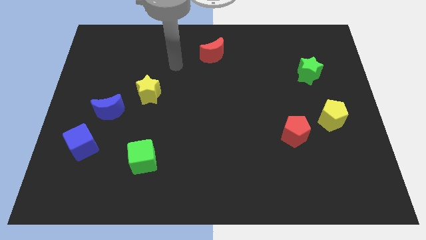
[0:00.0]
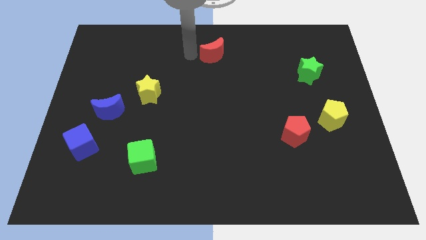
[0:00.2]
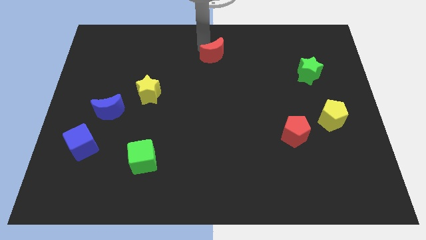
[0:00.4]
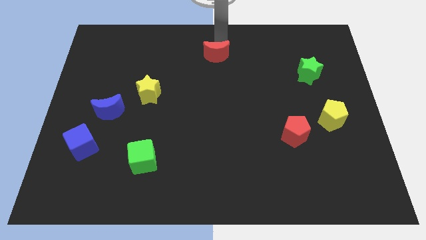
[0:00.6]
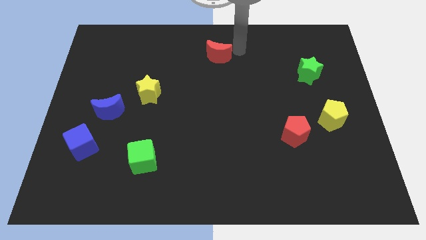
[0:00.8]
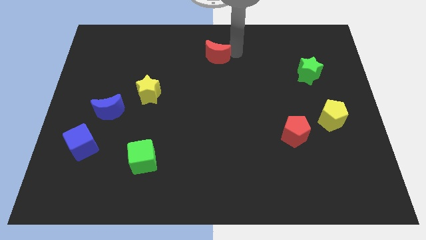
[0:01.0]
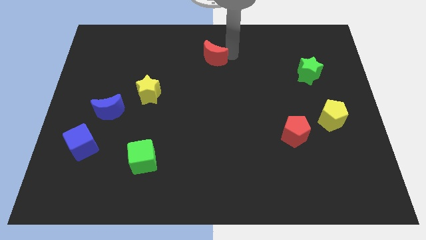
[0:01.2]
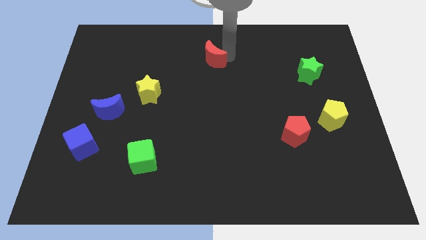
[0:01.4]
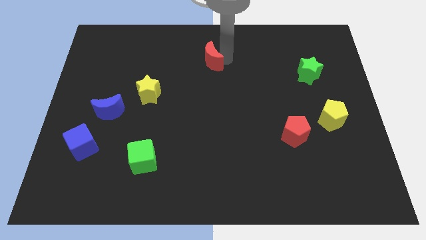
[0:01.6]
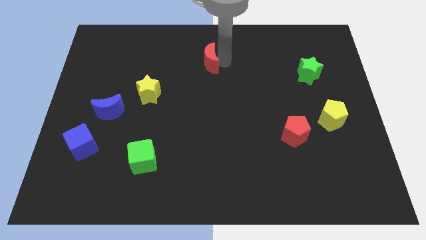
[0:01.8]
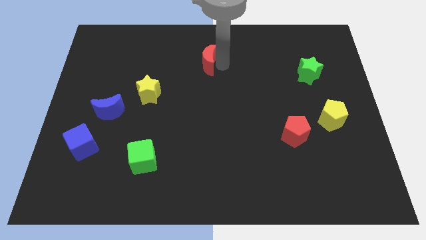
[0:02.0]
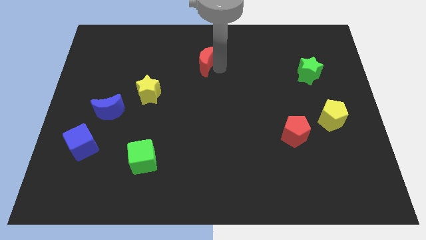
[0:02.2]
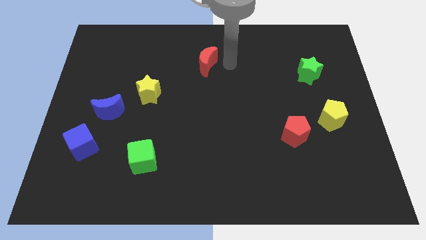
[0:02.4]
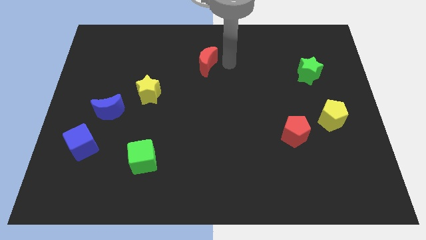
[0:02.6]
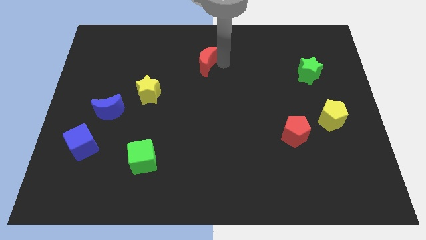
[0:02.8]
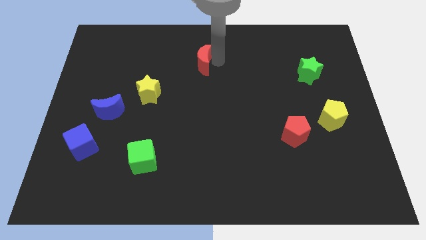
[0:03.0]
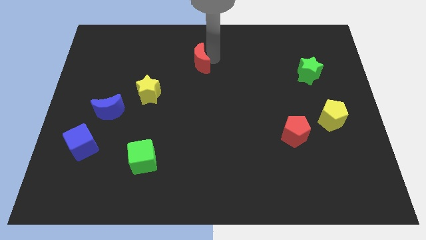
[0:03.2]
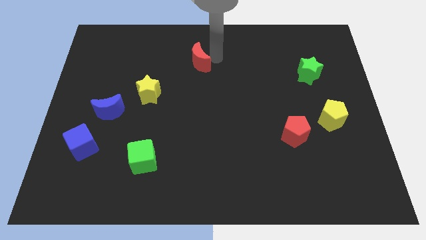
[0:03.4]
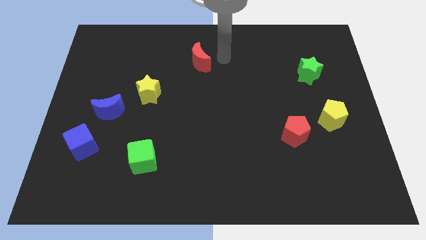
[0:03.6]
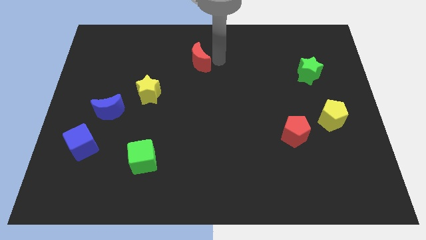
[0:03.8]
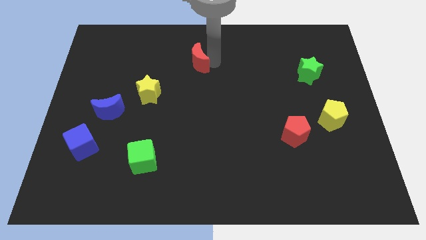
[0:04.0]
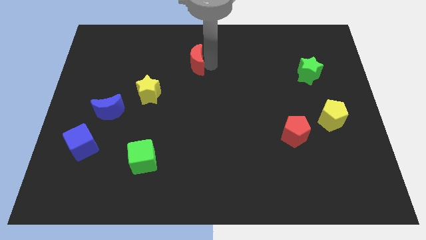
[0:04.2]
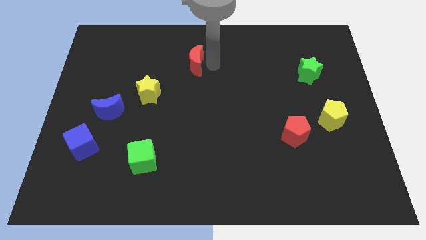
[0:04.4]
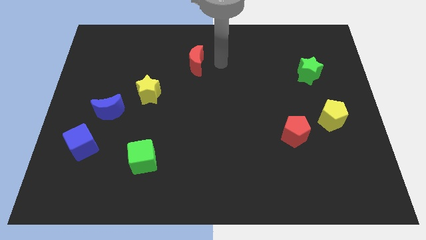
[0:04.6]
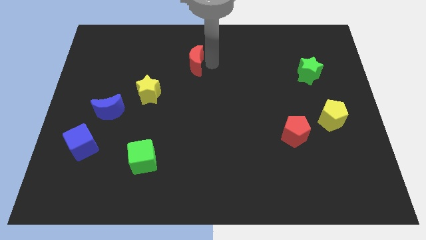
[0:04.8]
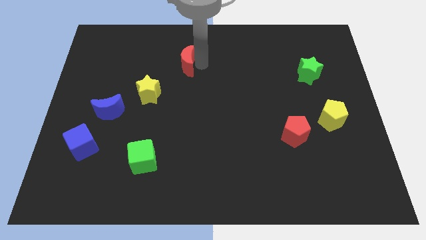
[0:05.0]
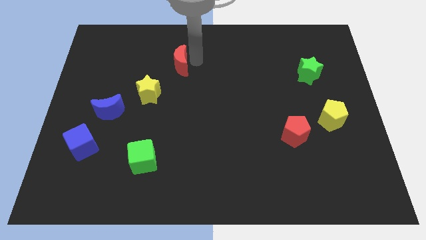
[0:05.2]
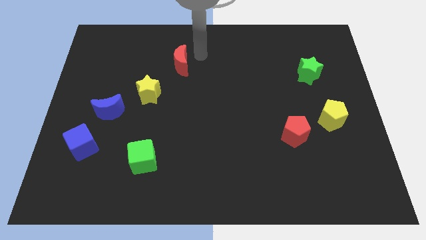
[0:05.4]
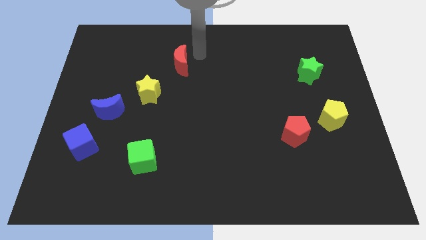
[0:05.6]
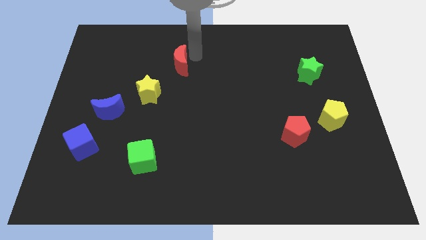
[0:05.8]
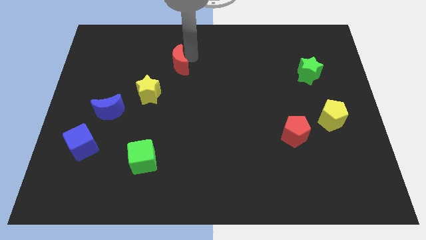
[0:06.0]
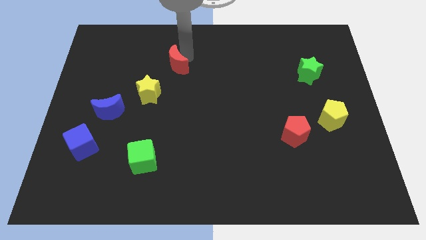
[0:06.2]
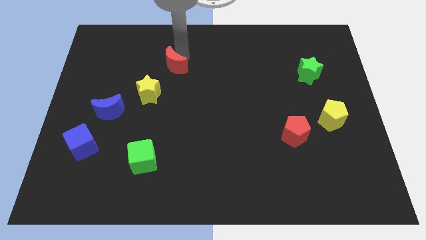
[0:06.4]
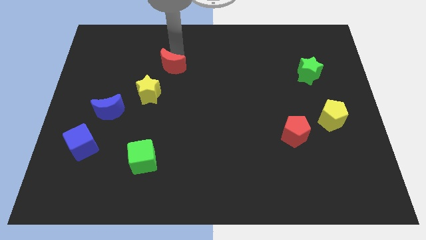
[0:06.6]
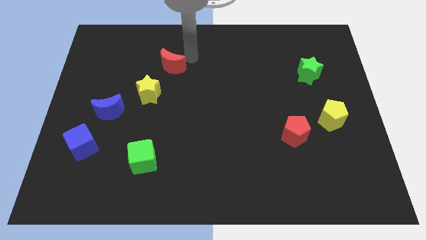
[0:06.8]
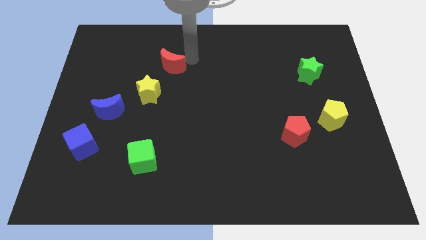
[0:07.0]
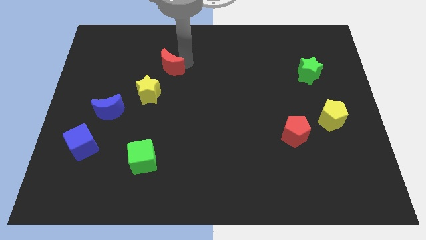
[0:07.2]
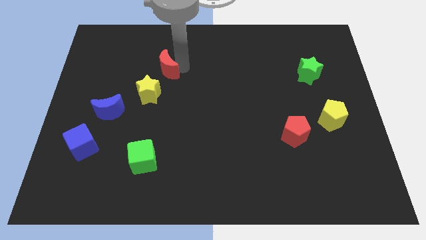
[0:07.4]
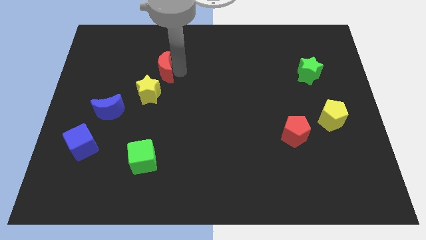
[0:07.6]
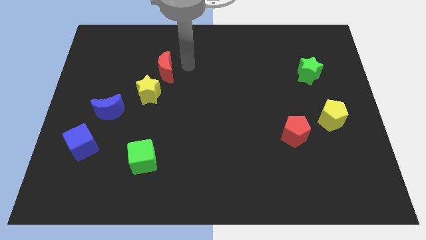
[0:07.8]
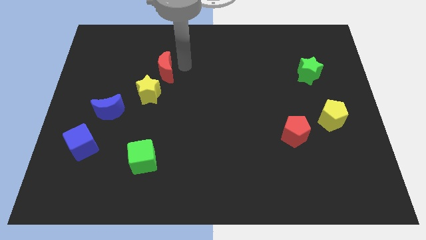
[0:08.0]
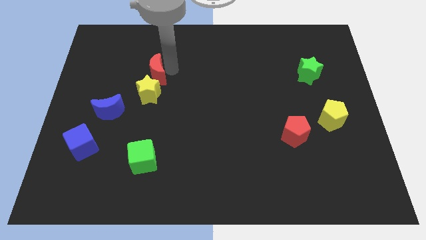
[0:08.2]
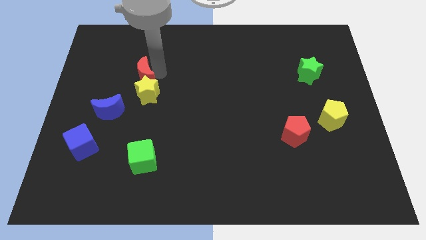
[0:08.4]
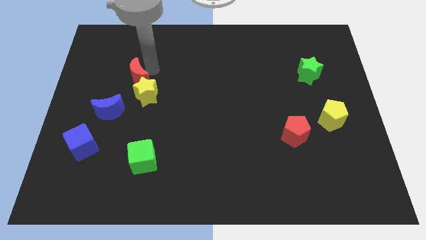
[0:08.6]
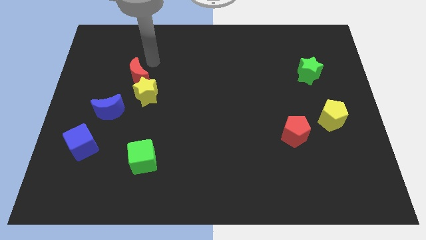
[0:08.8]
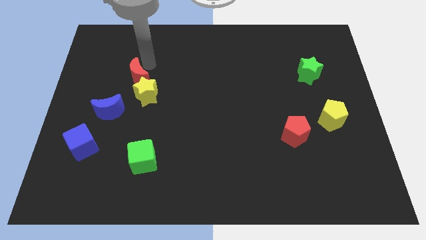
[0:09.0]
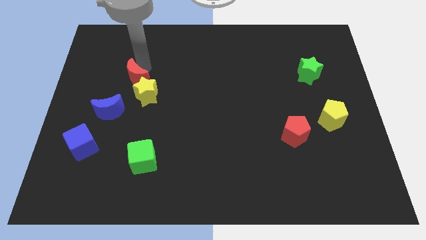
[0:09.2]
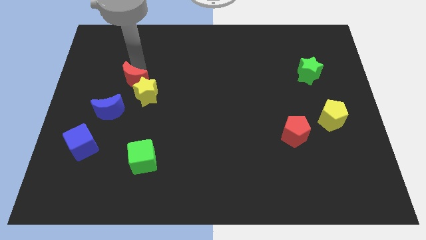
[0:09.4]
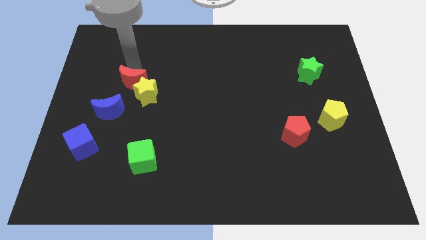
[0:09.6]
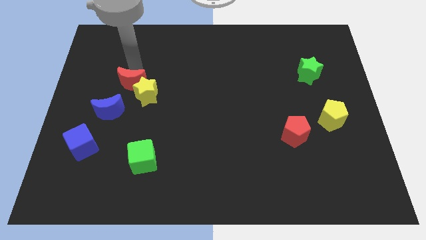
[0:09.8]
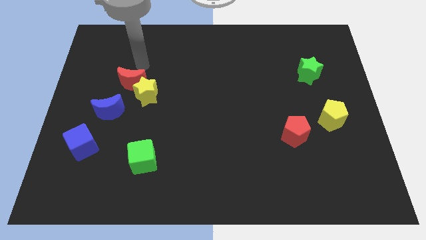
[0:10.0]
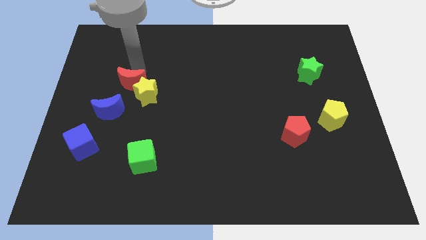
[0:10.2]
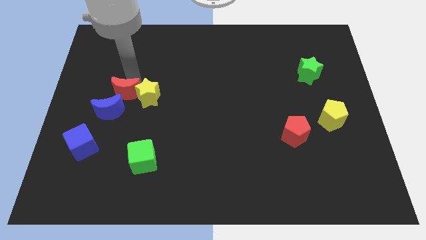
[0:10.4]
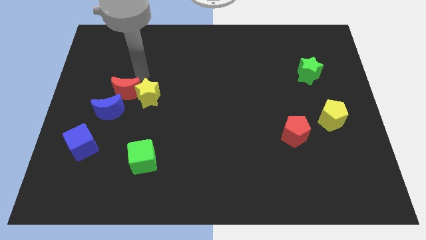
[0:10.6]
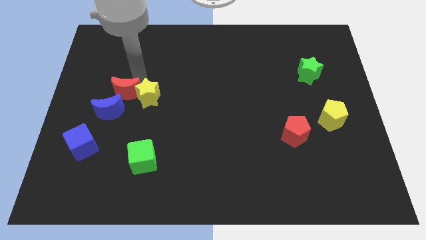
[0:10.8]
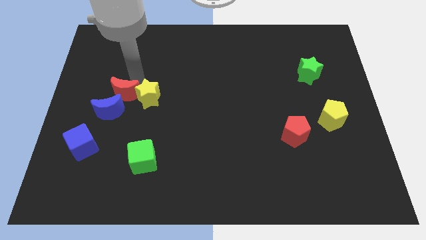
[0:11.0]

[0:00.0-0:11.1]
push the red moon close to the blue moon

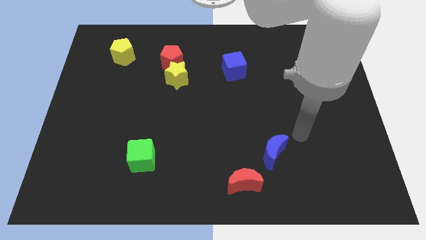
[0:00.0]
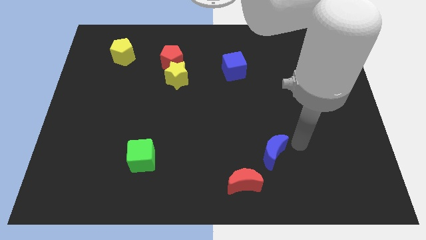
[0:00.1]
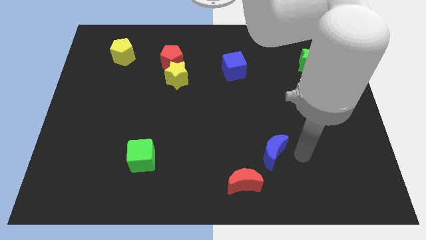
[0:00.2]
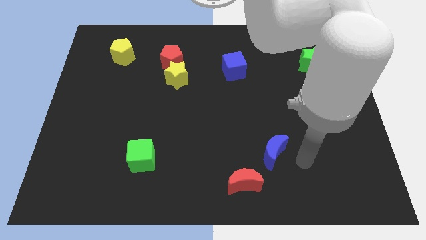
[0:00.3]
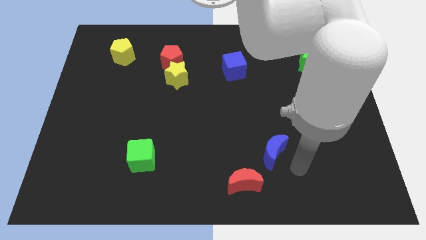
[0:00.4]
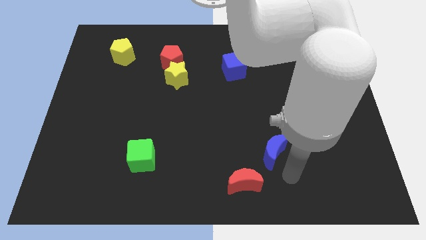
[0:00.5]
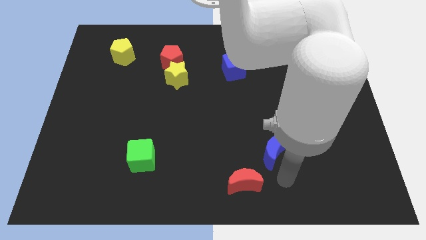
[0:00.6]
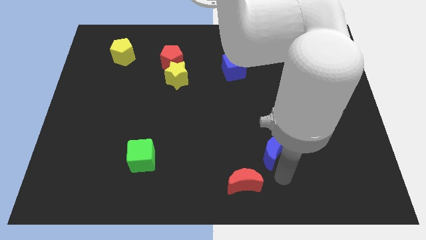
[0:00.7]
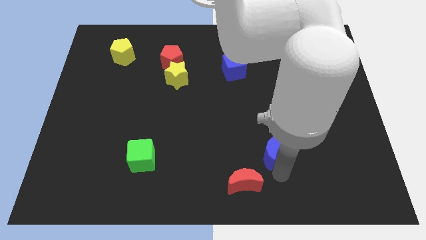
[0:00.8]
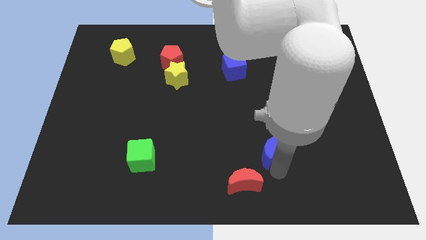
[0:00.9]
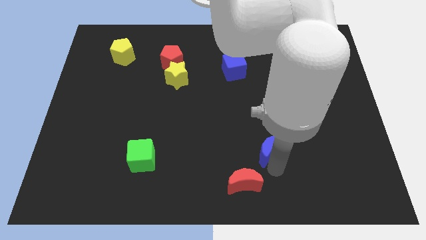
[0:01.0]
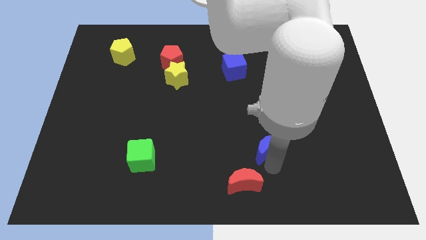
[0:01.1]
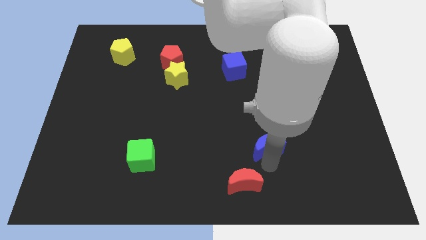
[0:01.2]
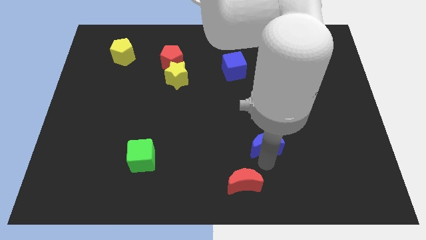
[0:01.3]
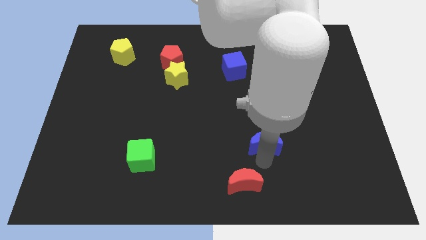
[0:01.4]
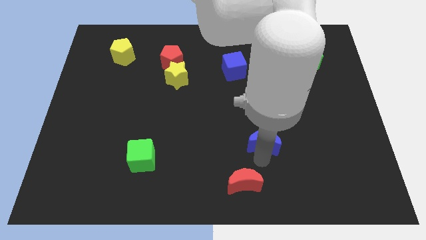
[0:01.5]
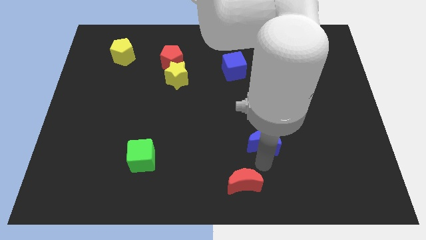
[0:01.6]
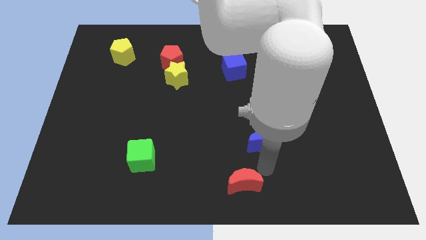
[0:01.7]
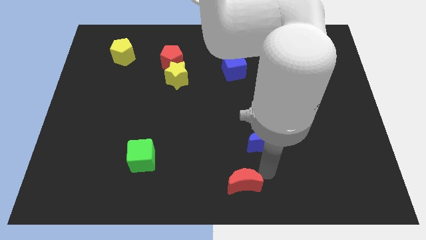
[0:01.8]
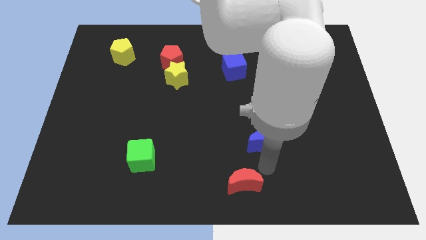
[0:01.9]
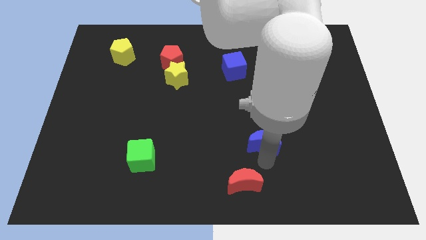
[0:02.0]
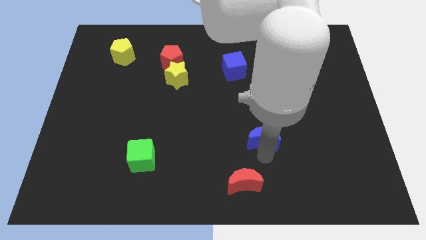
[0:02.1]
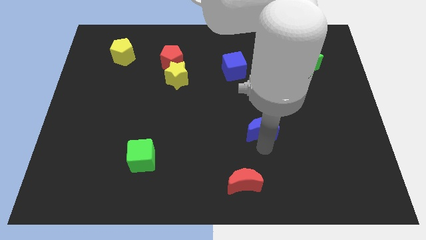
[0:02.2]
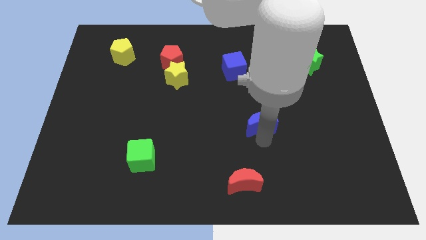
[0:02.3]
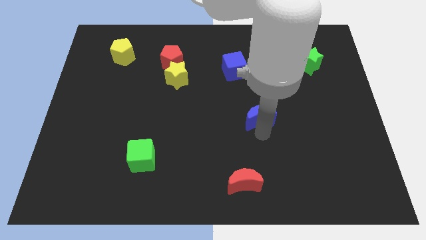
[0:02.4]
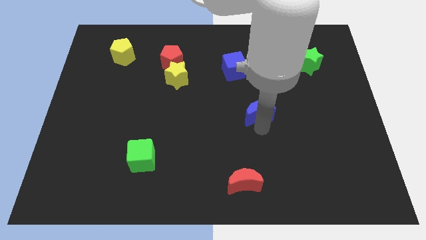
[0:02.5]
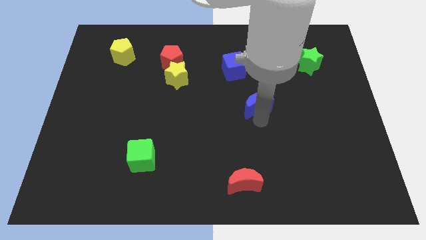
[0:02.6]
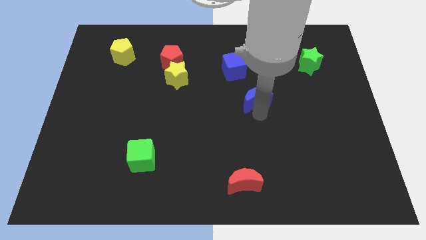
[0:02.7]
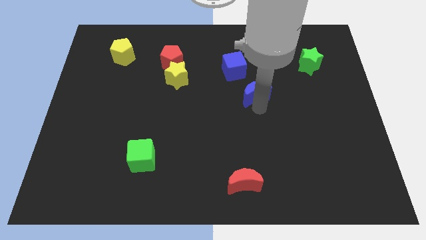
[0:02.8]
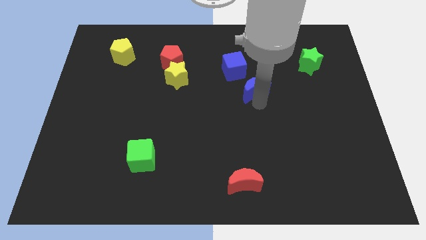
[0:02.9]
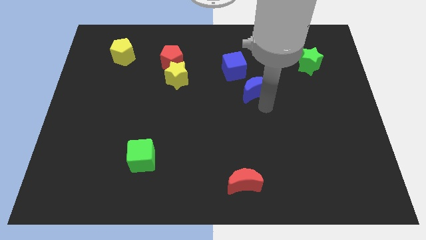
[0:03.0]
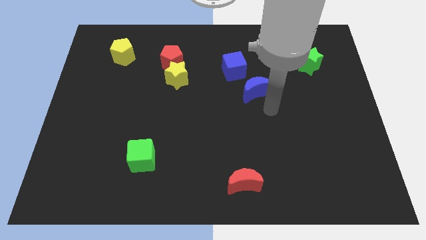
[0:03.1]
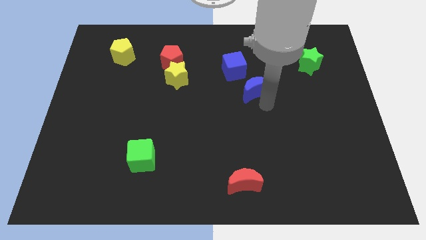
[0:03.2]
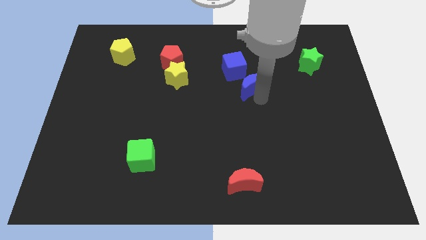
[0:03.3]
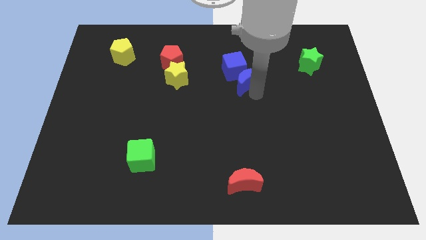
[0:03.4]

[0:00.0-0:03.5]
push the blue moon towards the blue cube
